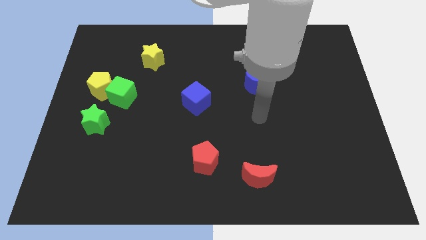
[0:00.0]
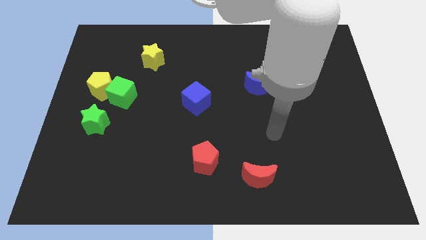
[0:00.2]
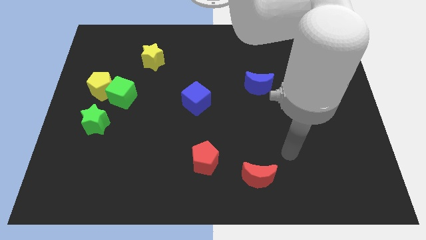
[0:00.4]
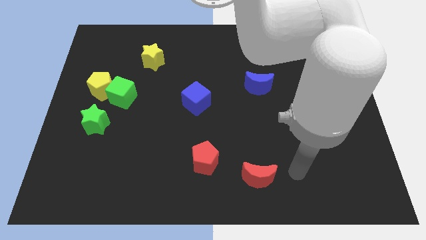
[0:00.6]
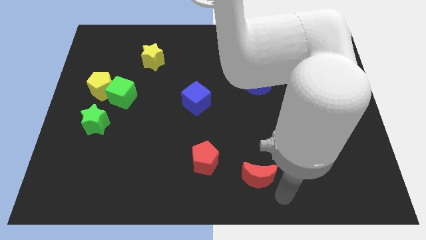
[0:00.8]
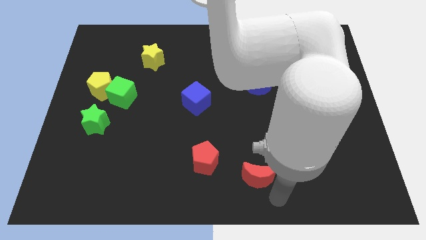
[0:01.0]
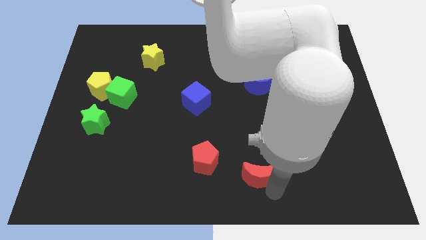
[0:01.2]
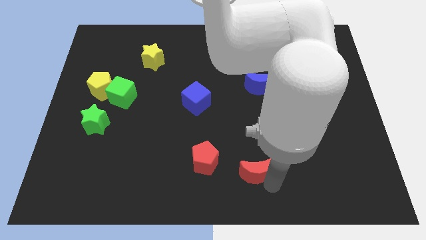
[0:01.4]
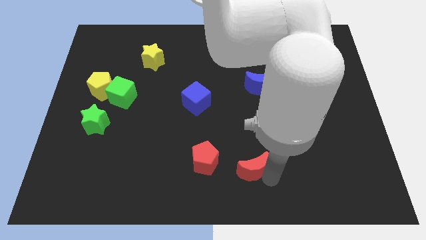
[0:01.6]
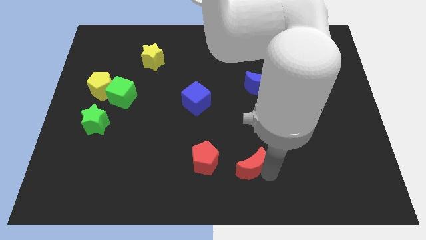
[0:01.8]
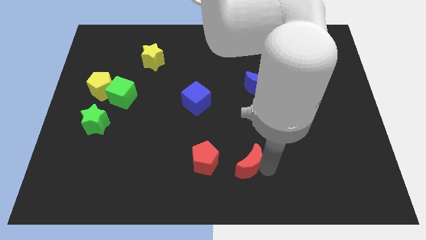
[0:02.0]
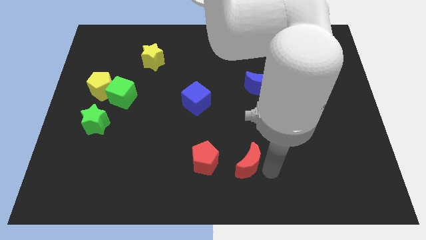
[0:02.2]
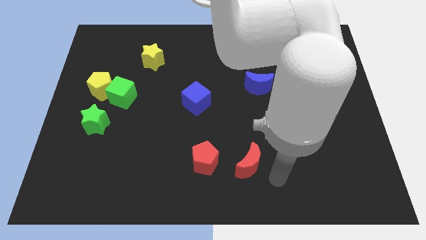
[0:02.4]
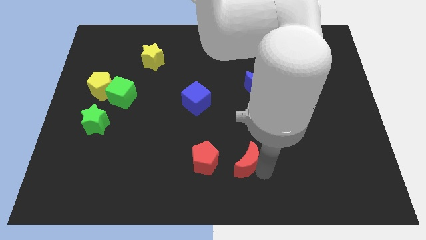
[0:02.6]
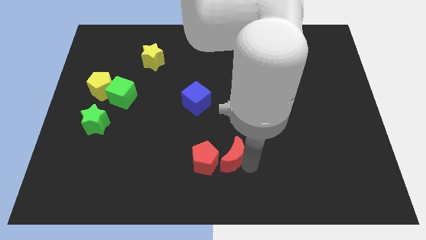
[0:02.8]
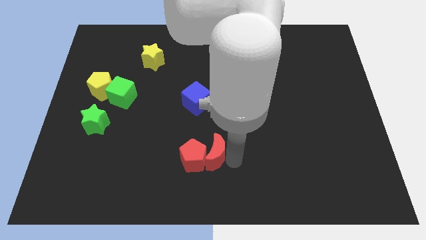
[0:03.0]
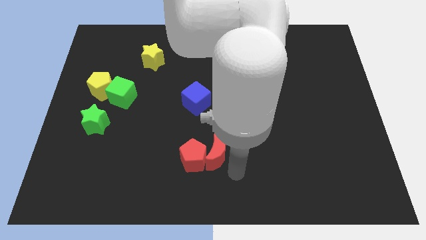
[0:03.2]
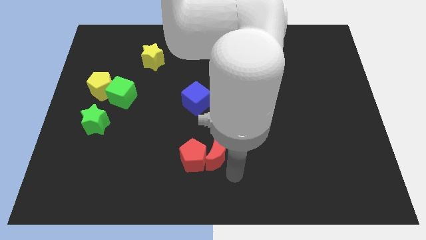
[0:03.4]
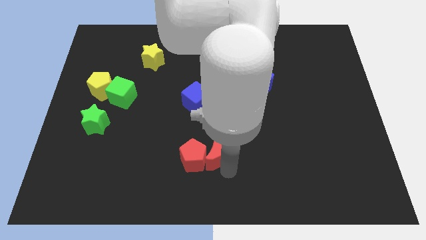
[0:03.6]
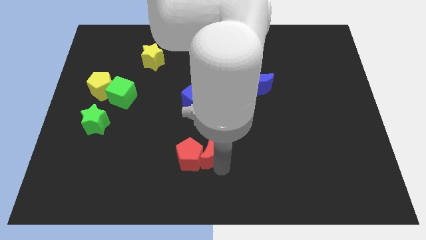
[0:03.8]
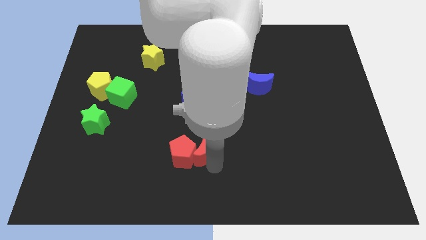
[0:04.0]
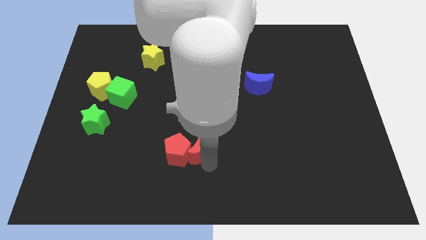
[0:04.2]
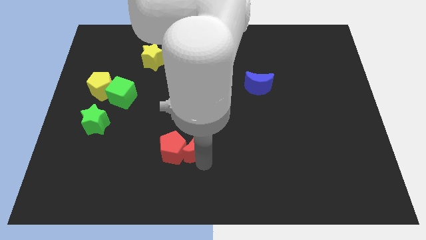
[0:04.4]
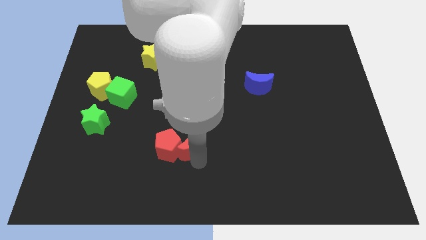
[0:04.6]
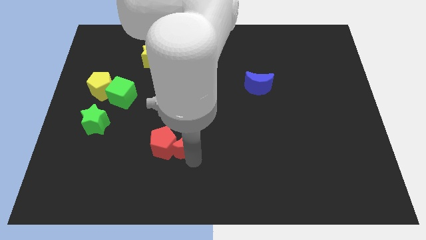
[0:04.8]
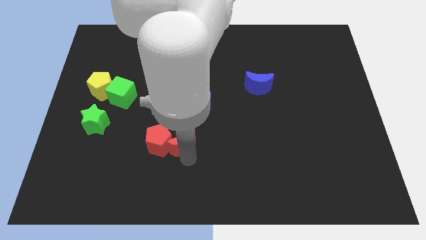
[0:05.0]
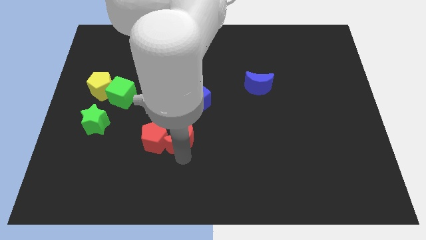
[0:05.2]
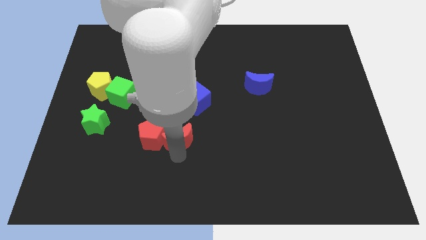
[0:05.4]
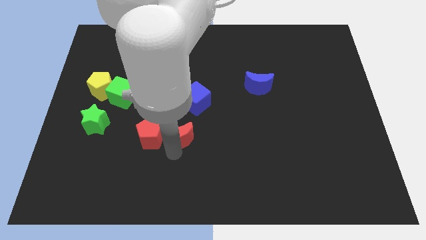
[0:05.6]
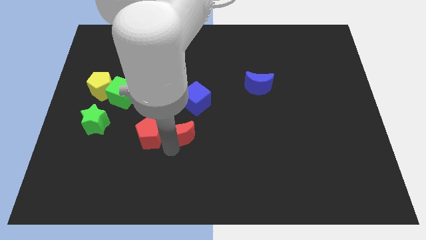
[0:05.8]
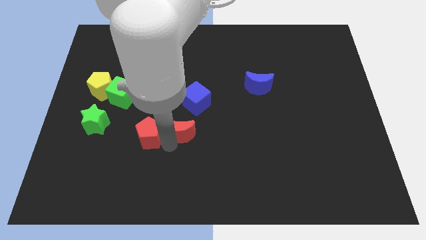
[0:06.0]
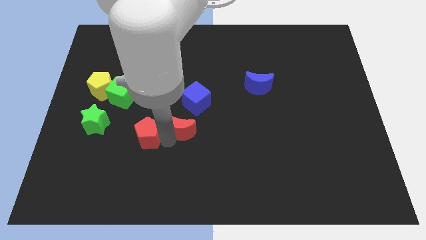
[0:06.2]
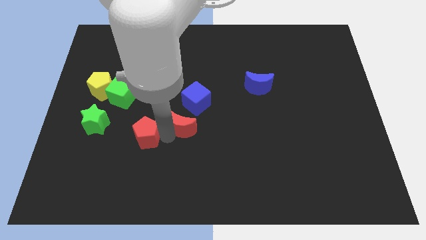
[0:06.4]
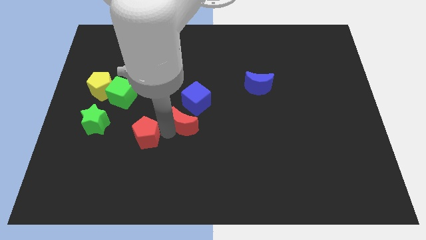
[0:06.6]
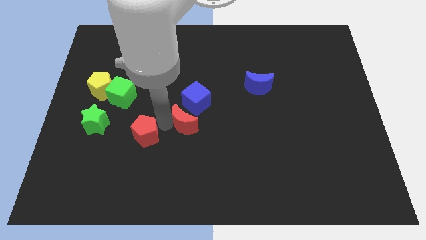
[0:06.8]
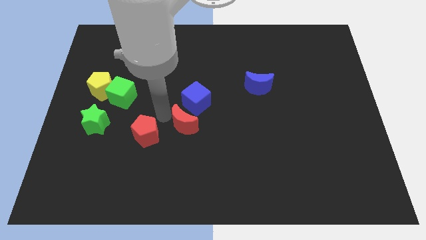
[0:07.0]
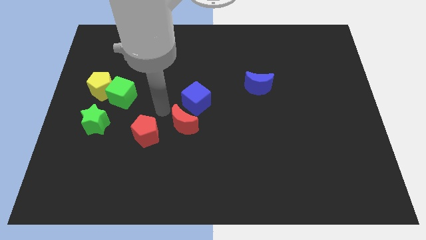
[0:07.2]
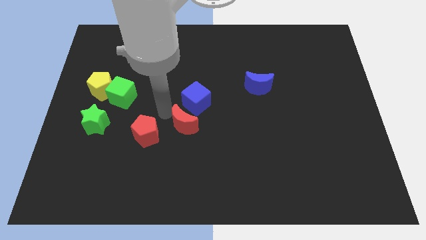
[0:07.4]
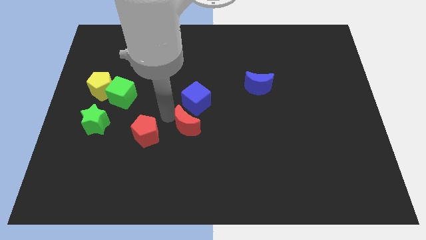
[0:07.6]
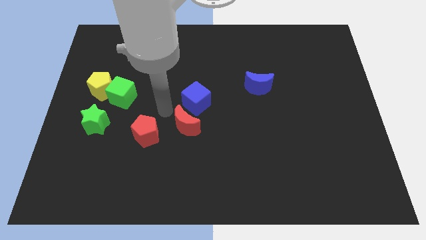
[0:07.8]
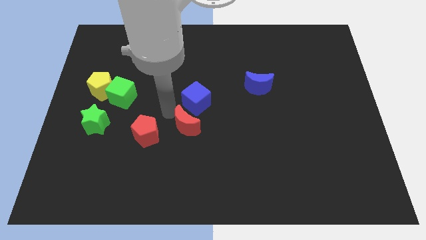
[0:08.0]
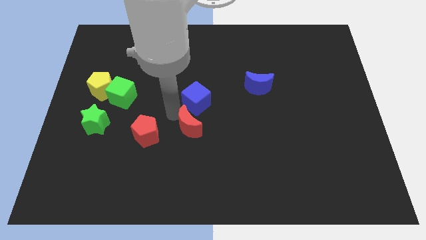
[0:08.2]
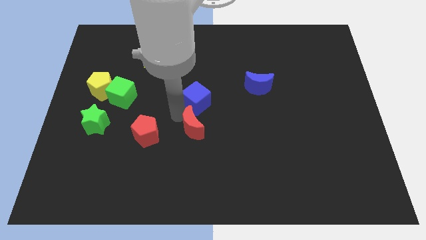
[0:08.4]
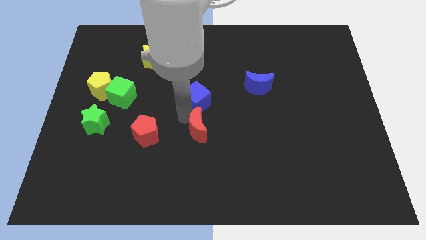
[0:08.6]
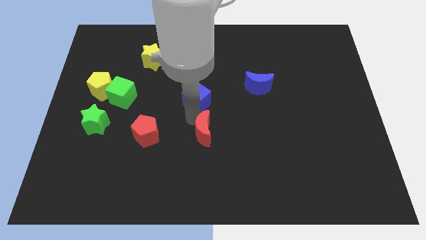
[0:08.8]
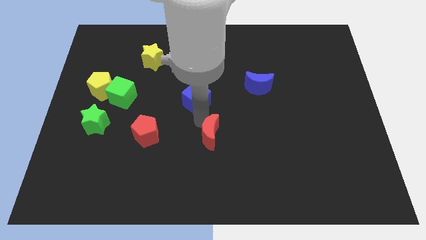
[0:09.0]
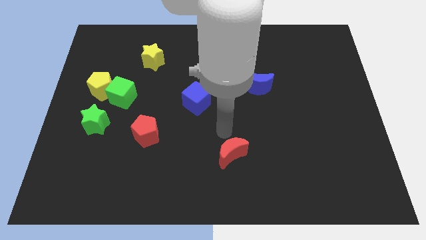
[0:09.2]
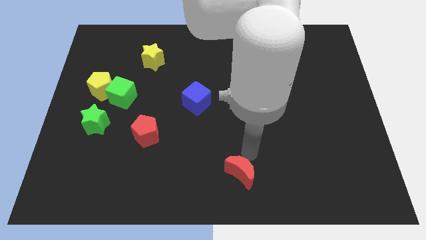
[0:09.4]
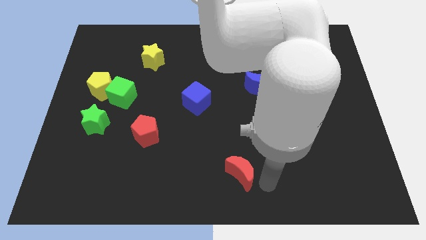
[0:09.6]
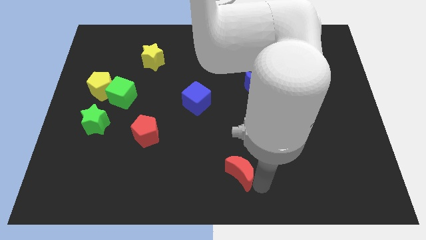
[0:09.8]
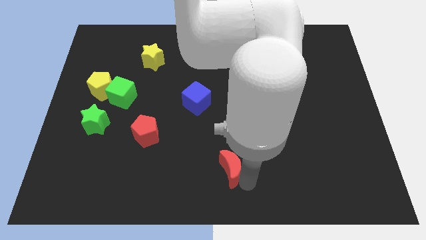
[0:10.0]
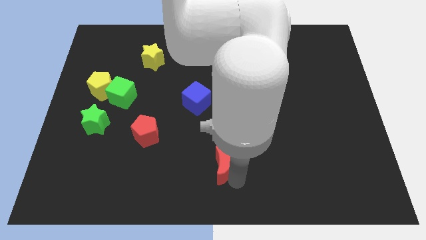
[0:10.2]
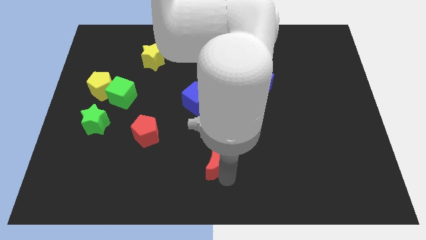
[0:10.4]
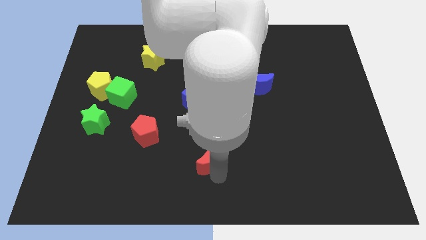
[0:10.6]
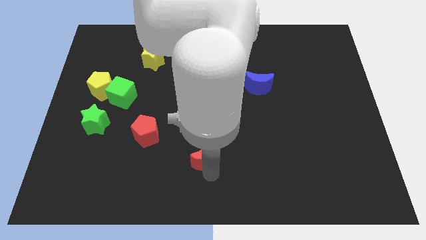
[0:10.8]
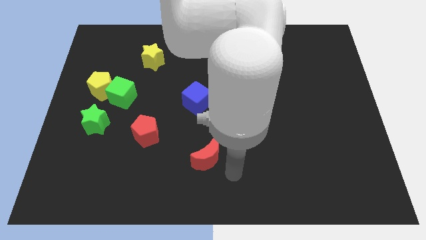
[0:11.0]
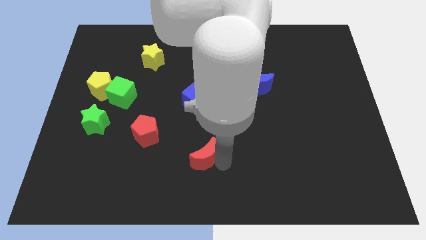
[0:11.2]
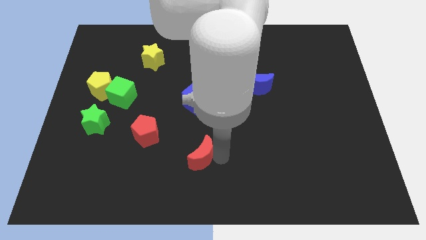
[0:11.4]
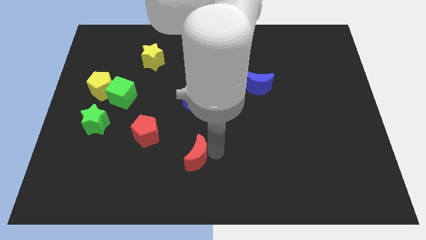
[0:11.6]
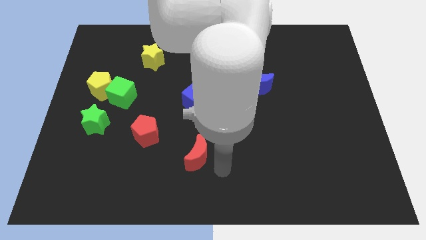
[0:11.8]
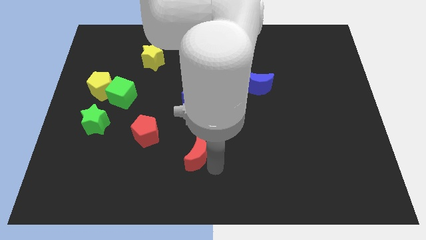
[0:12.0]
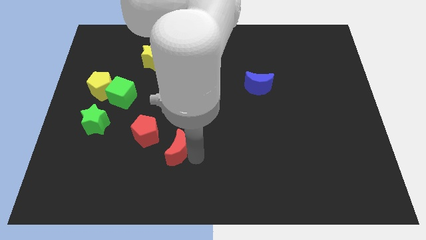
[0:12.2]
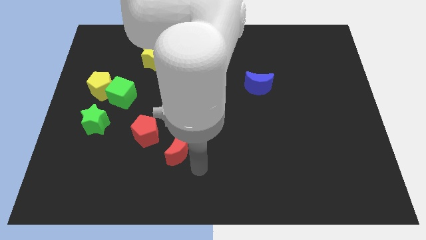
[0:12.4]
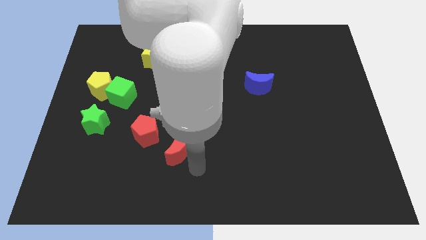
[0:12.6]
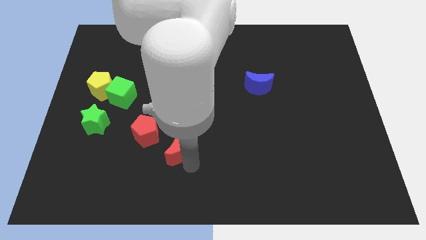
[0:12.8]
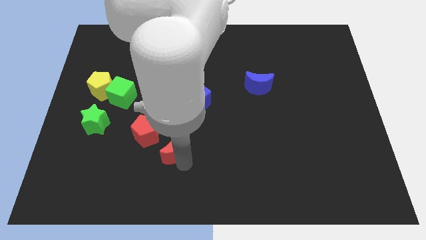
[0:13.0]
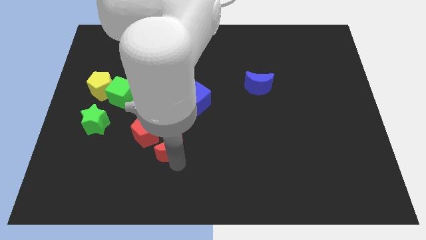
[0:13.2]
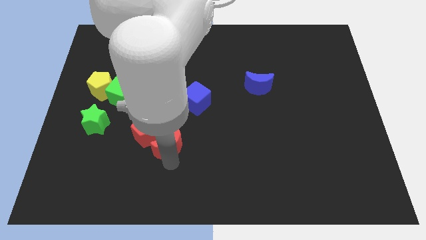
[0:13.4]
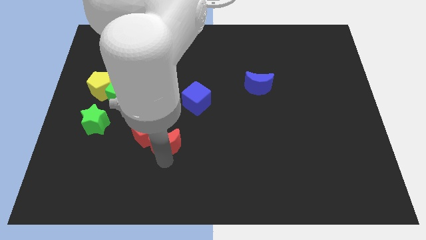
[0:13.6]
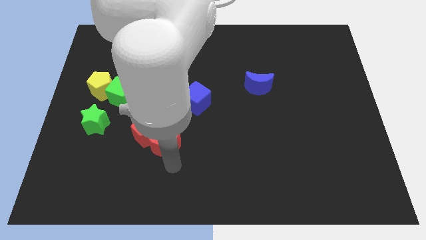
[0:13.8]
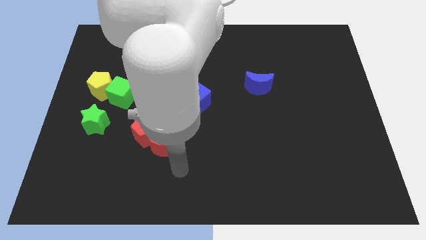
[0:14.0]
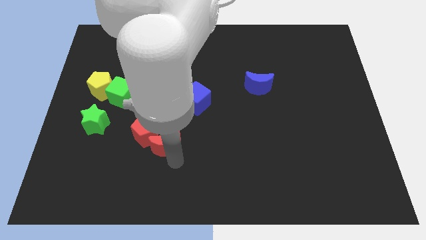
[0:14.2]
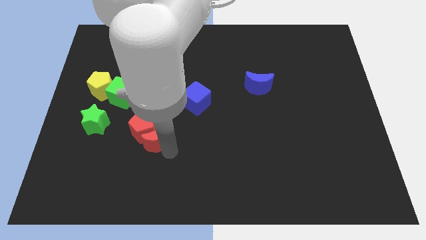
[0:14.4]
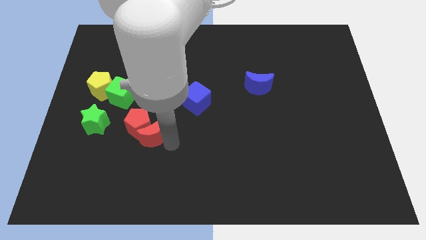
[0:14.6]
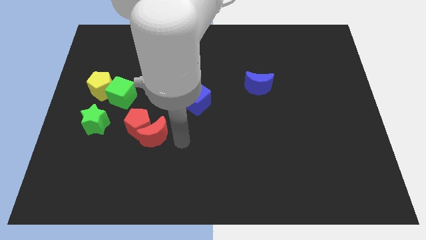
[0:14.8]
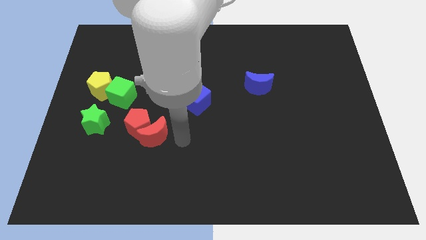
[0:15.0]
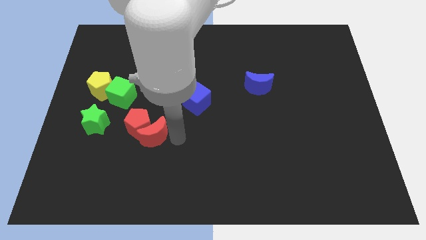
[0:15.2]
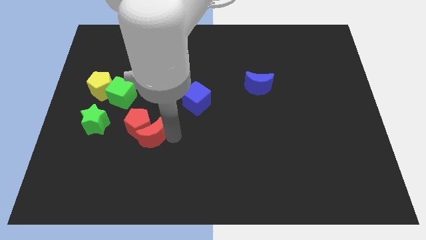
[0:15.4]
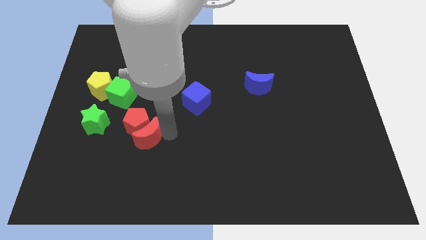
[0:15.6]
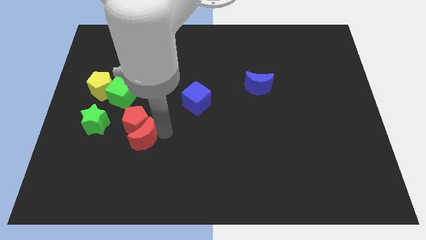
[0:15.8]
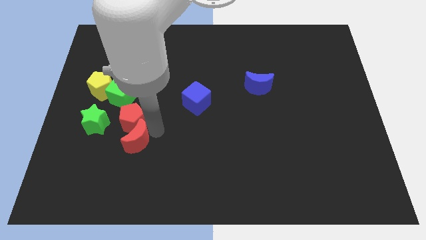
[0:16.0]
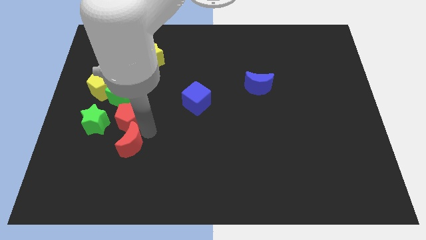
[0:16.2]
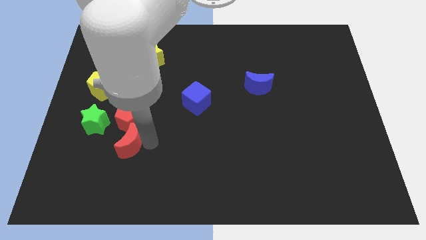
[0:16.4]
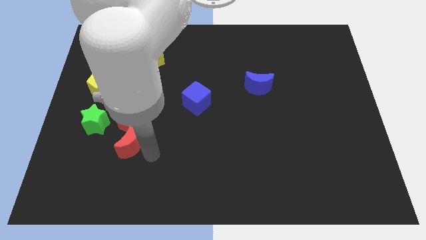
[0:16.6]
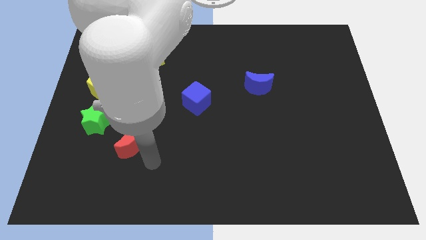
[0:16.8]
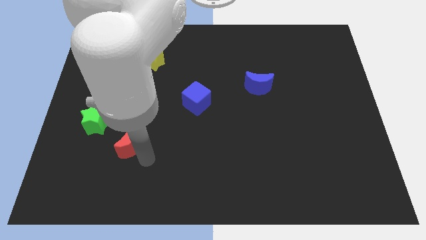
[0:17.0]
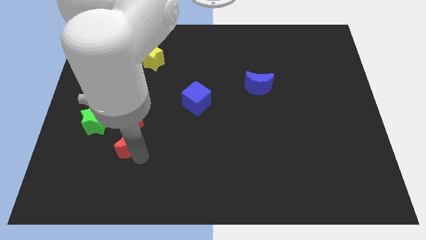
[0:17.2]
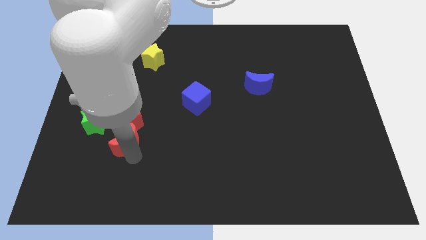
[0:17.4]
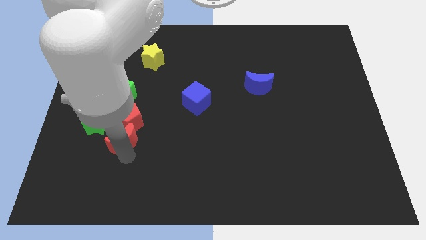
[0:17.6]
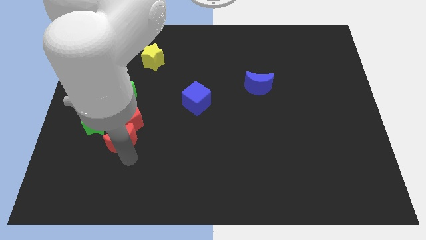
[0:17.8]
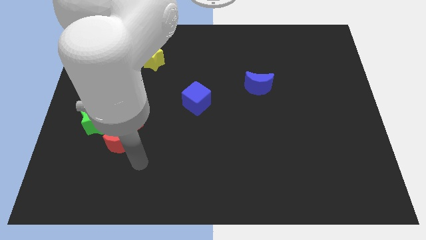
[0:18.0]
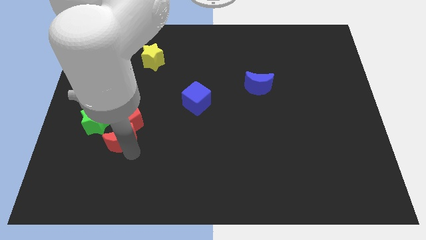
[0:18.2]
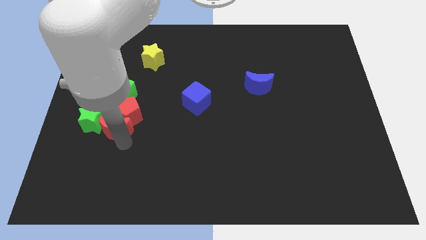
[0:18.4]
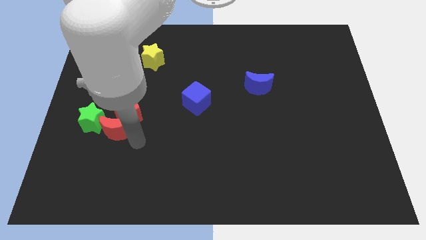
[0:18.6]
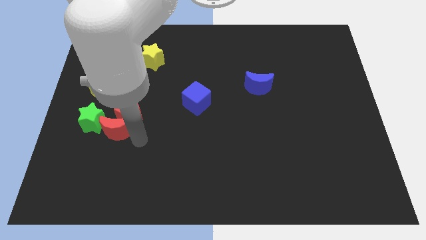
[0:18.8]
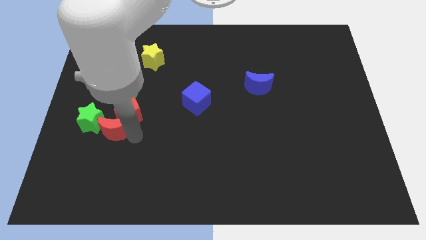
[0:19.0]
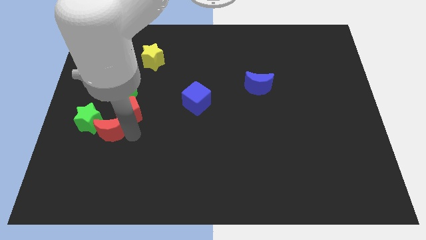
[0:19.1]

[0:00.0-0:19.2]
push the red moon to the green star
